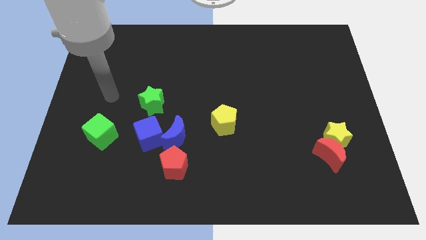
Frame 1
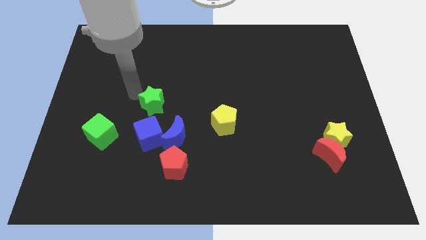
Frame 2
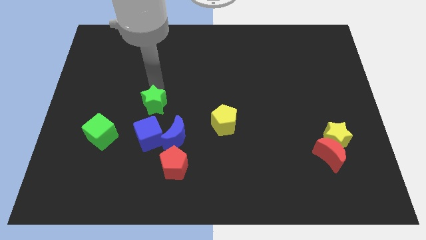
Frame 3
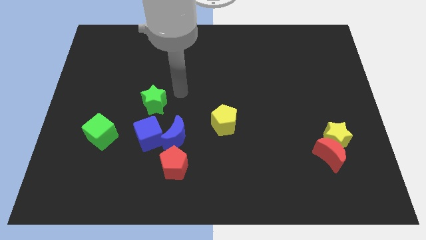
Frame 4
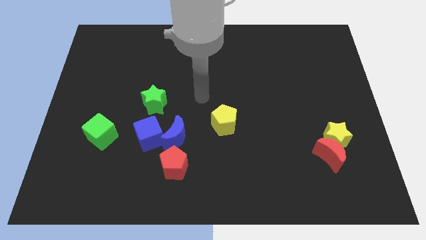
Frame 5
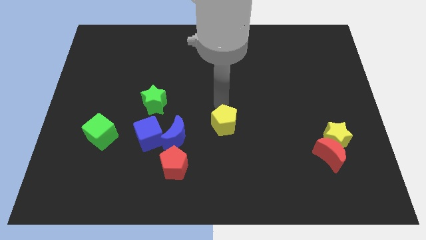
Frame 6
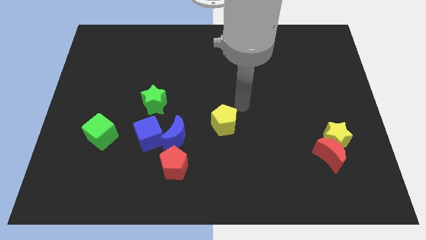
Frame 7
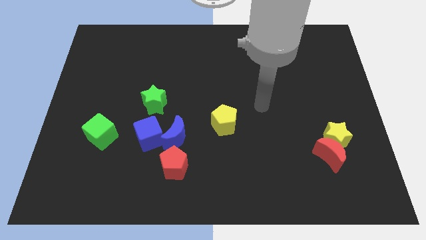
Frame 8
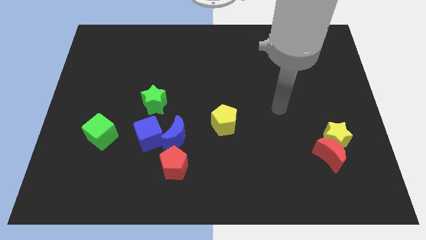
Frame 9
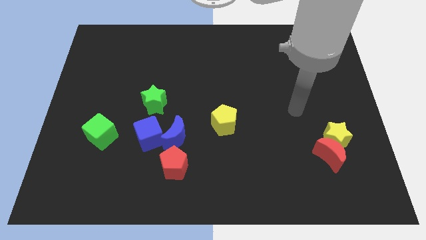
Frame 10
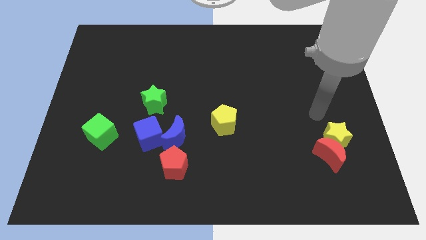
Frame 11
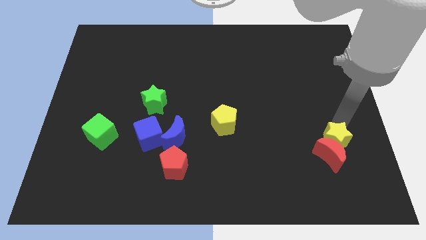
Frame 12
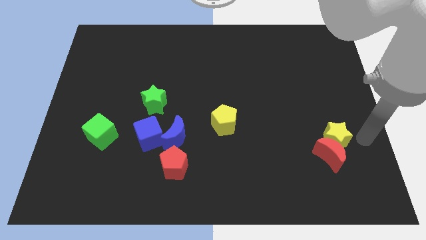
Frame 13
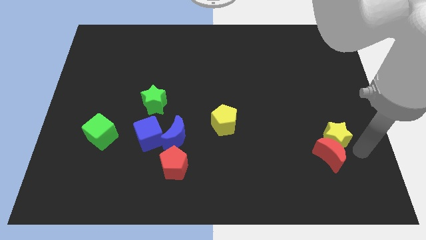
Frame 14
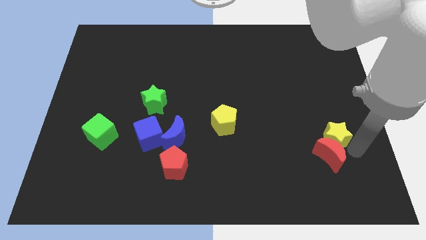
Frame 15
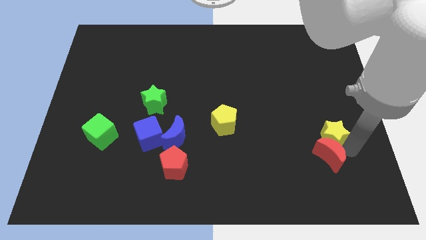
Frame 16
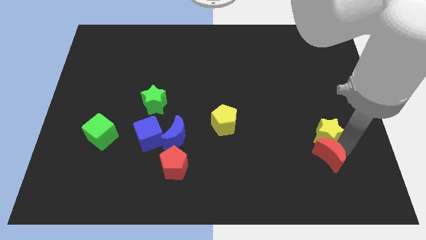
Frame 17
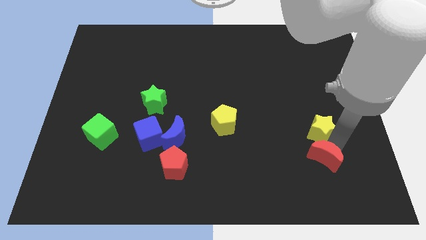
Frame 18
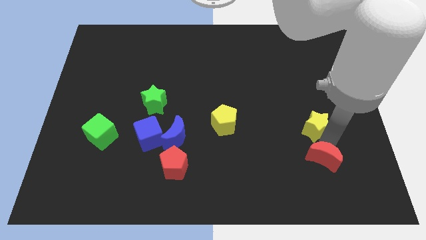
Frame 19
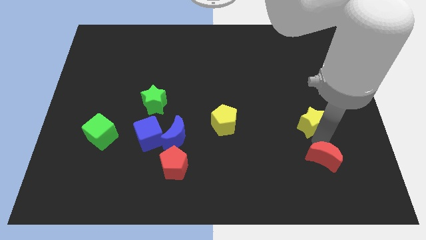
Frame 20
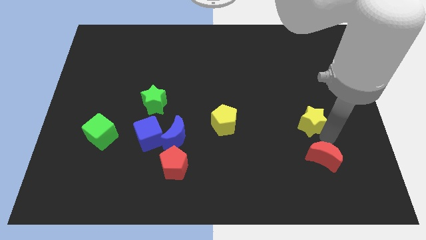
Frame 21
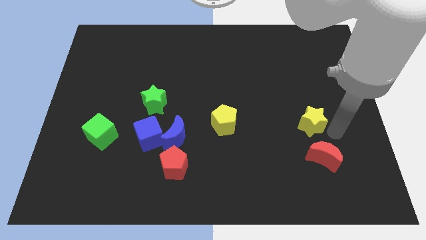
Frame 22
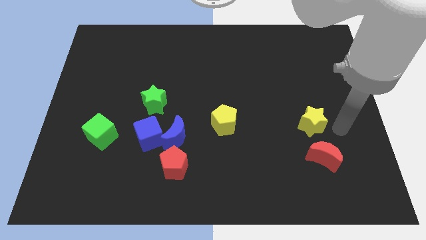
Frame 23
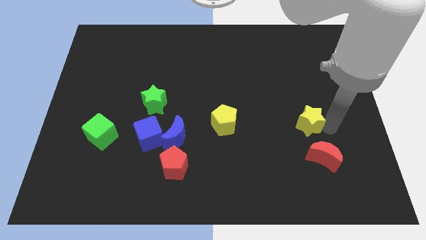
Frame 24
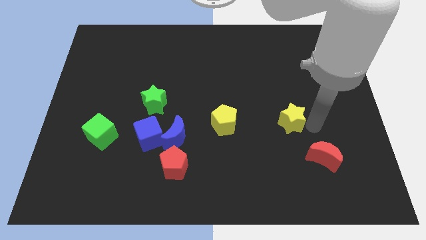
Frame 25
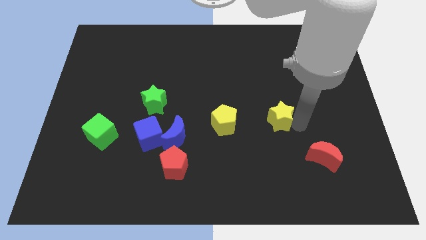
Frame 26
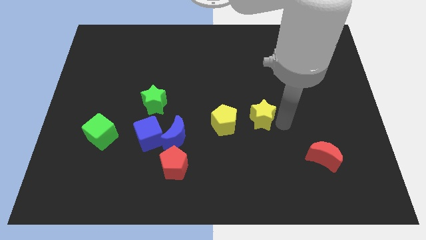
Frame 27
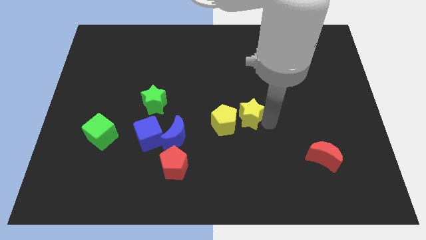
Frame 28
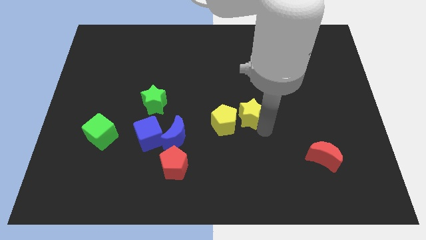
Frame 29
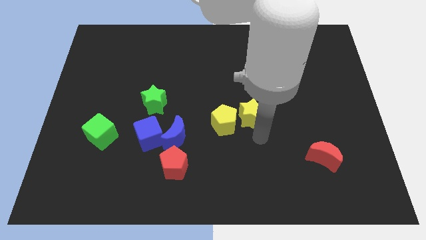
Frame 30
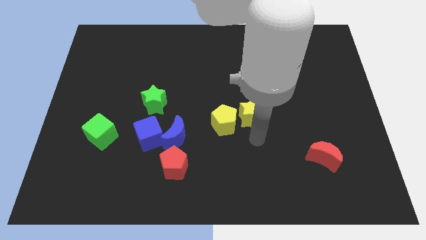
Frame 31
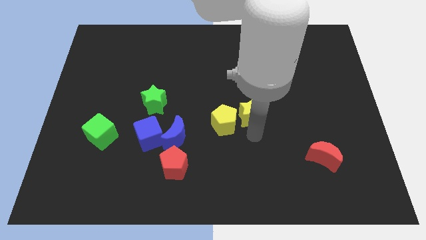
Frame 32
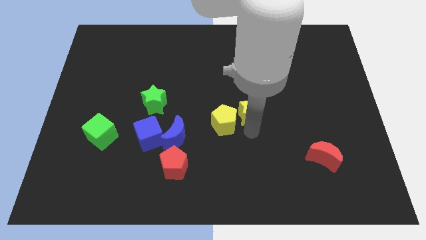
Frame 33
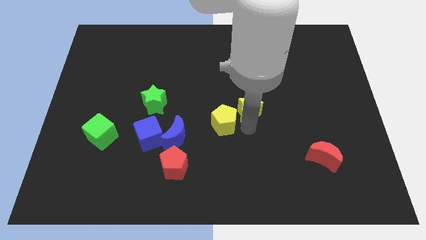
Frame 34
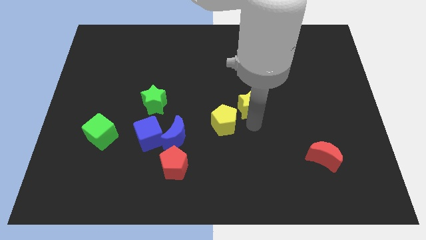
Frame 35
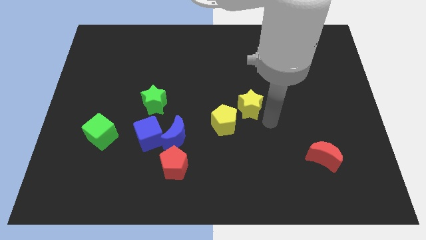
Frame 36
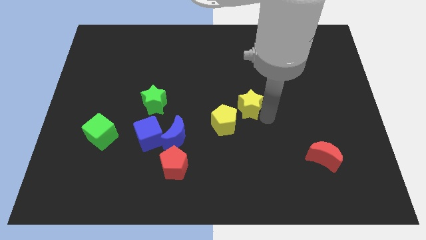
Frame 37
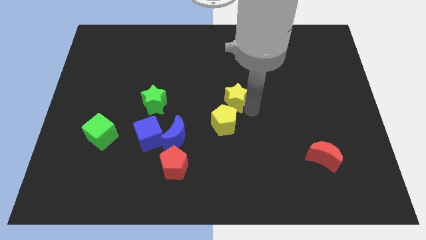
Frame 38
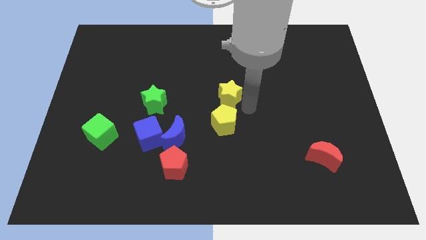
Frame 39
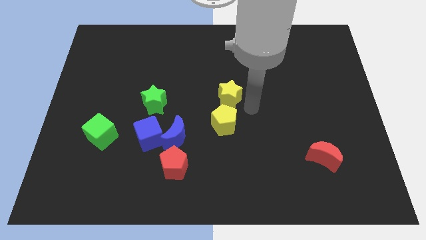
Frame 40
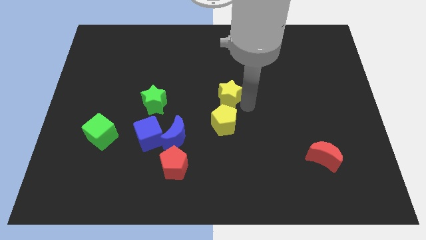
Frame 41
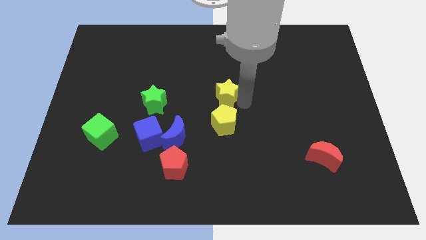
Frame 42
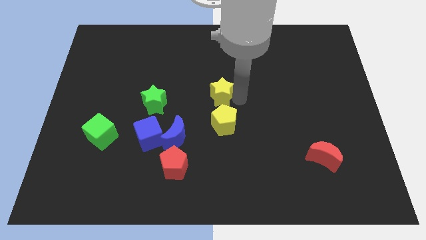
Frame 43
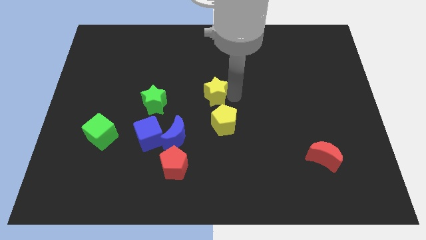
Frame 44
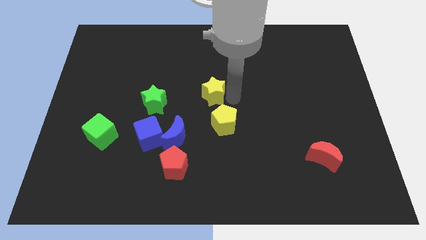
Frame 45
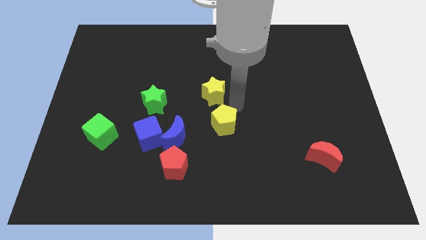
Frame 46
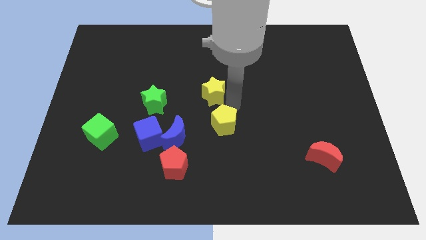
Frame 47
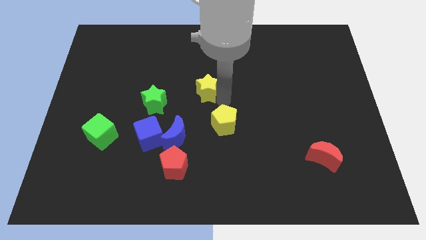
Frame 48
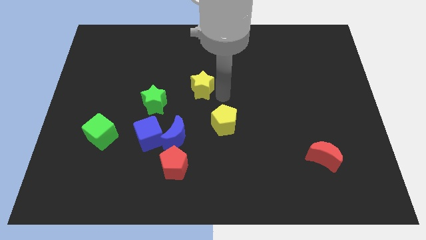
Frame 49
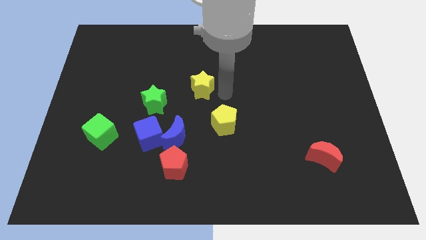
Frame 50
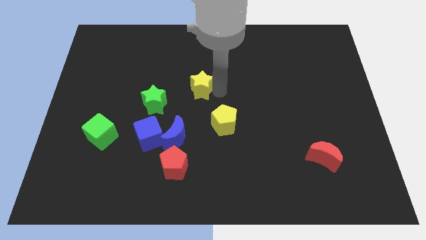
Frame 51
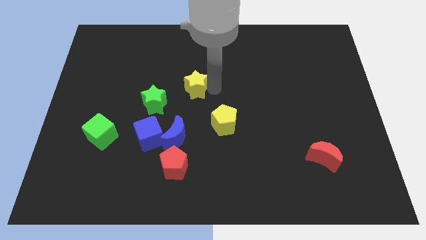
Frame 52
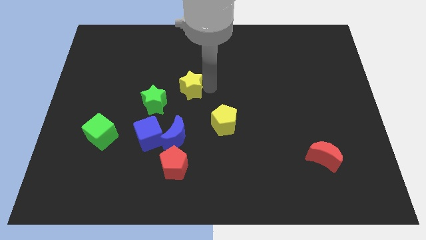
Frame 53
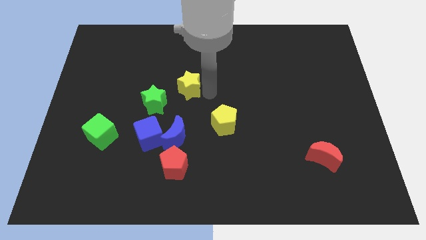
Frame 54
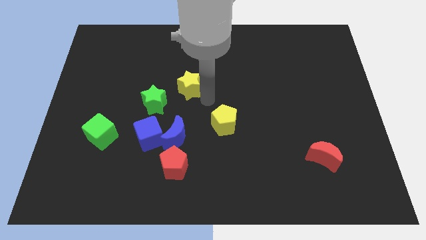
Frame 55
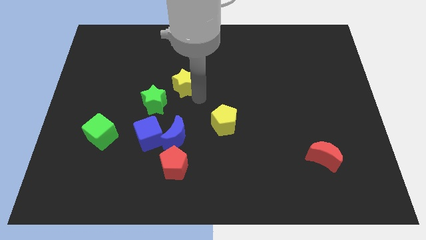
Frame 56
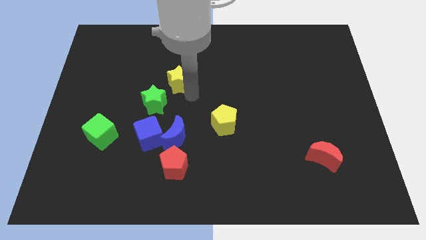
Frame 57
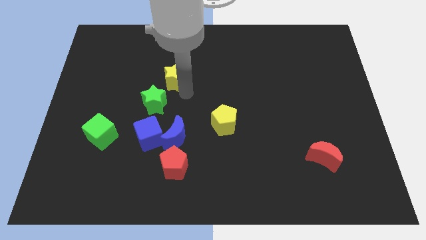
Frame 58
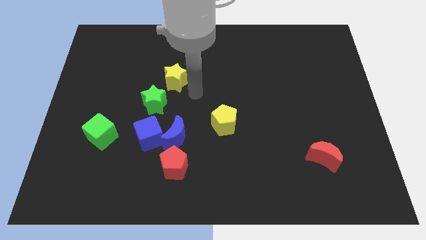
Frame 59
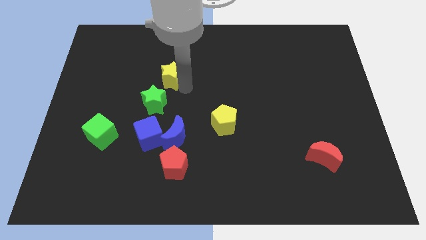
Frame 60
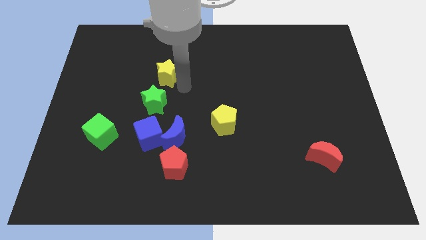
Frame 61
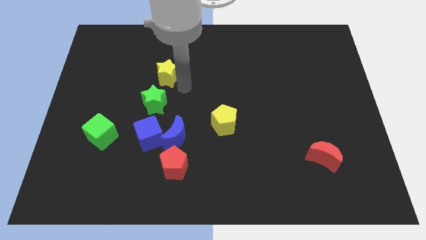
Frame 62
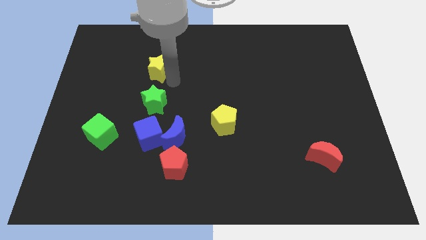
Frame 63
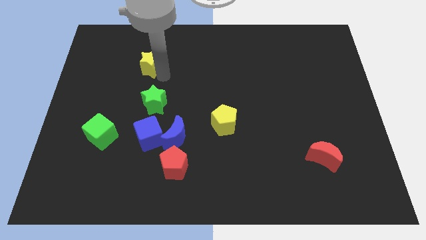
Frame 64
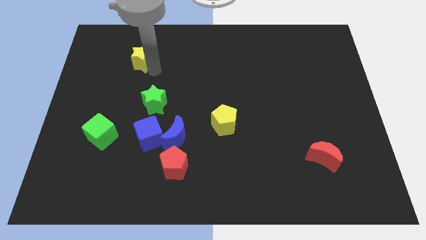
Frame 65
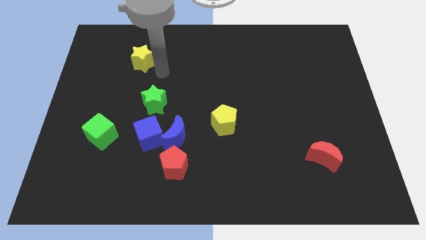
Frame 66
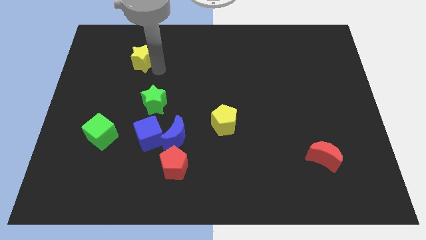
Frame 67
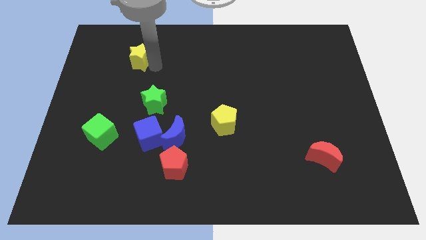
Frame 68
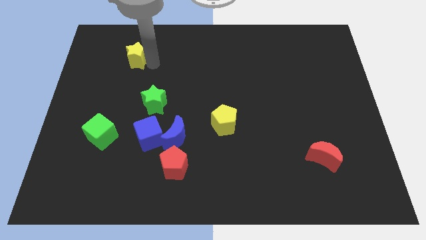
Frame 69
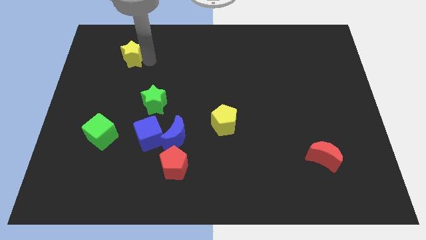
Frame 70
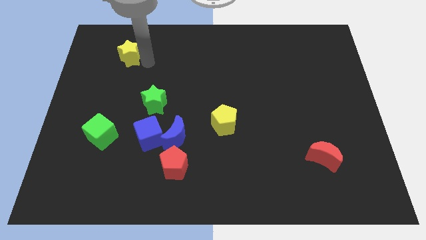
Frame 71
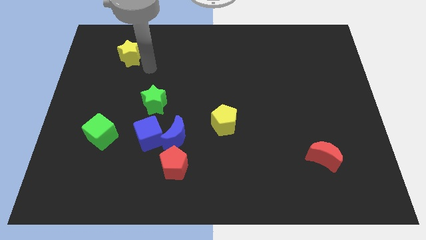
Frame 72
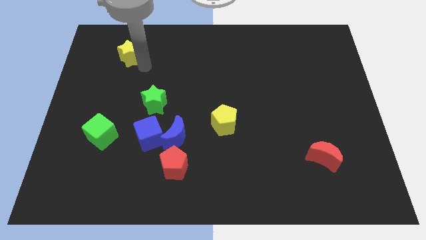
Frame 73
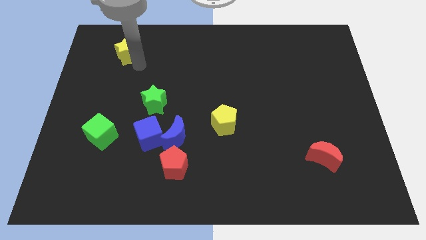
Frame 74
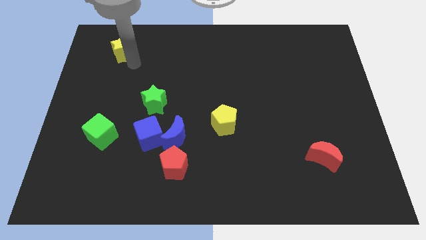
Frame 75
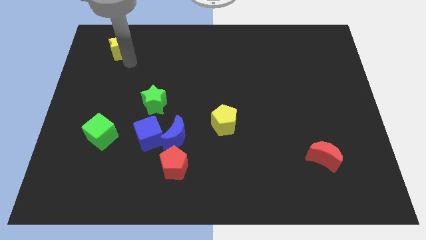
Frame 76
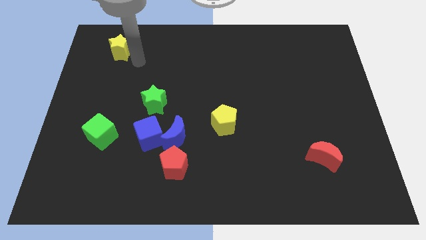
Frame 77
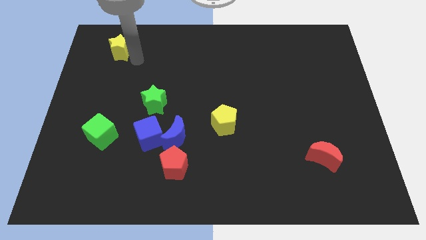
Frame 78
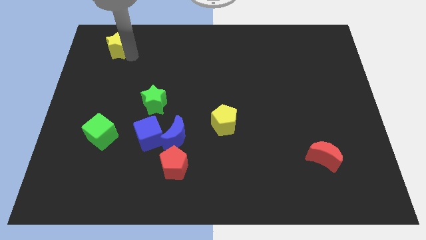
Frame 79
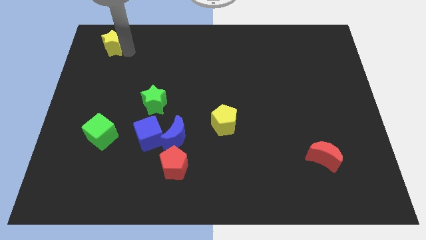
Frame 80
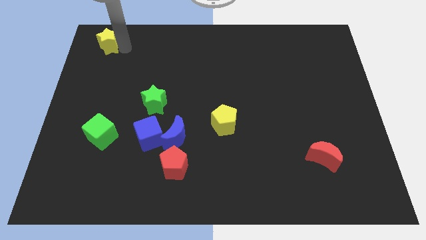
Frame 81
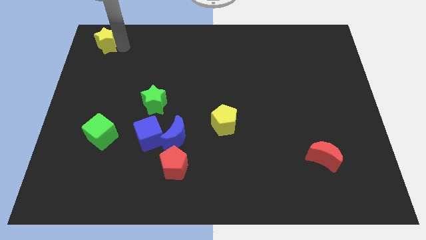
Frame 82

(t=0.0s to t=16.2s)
push the yellow star to the top left
